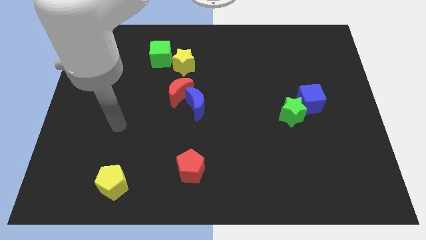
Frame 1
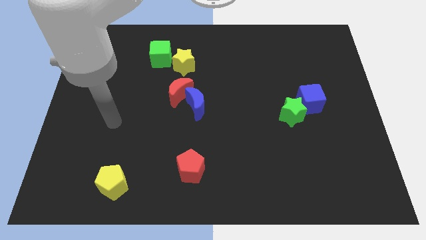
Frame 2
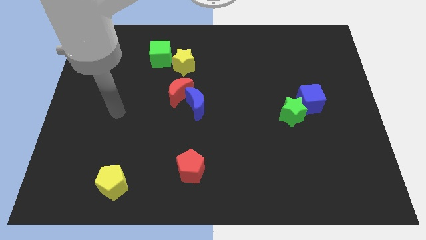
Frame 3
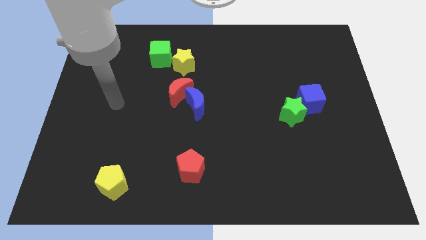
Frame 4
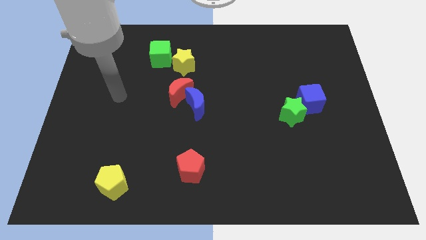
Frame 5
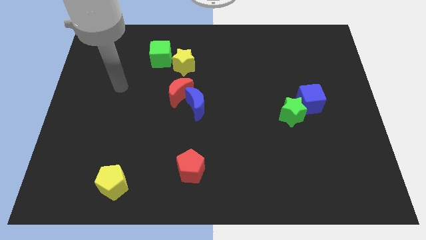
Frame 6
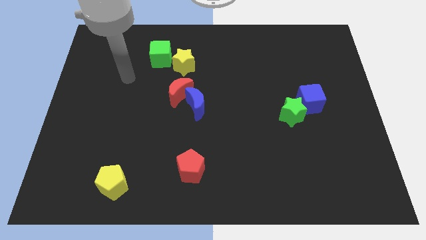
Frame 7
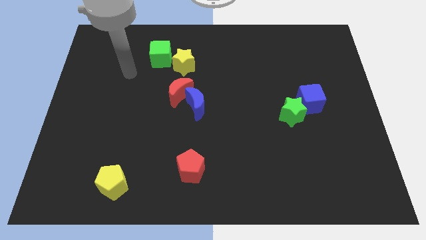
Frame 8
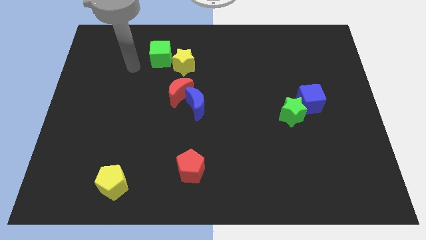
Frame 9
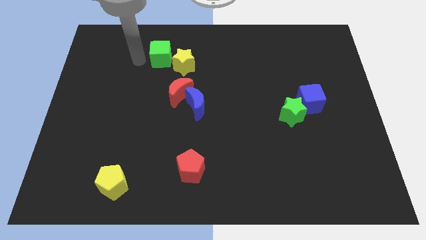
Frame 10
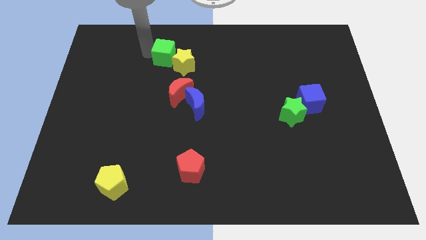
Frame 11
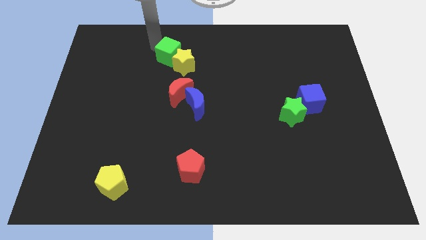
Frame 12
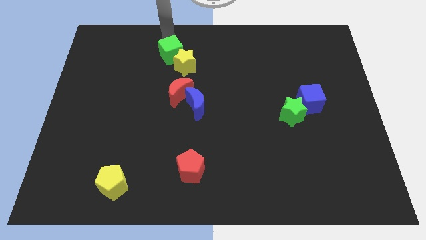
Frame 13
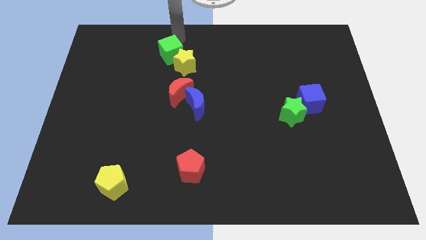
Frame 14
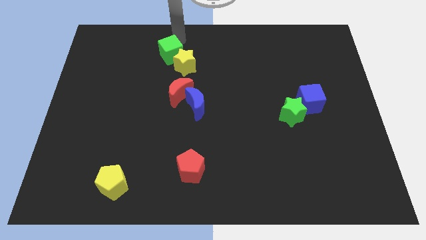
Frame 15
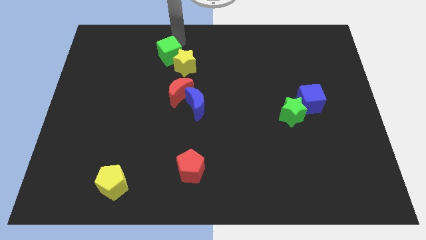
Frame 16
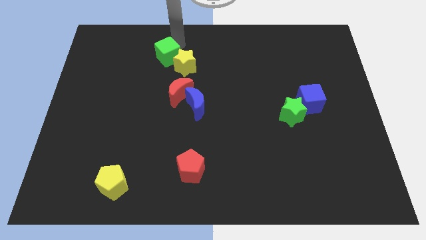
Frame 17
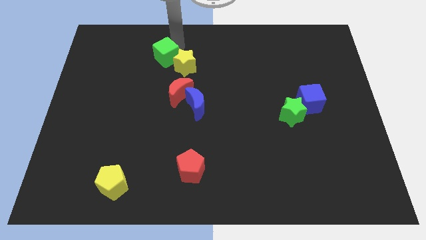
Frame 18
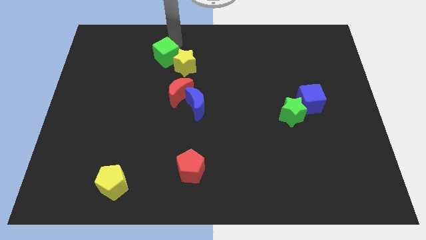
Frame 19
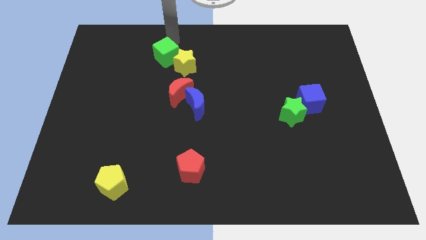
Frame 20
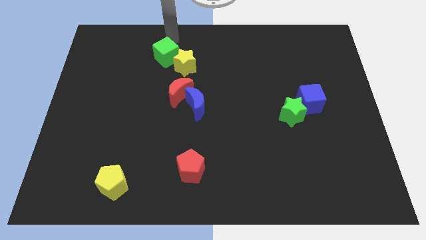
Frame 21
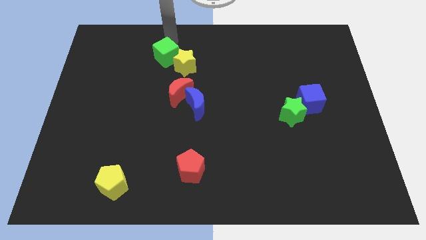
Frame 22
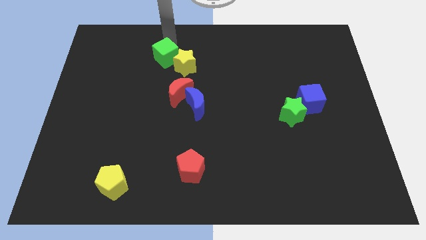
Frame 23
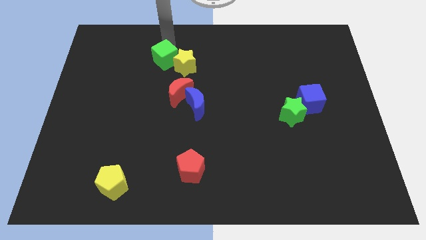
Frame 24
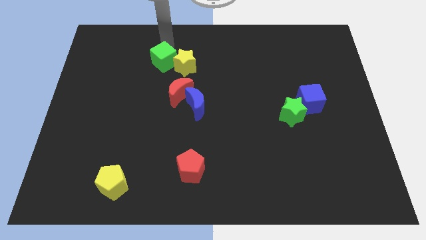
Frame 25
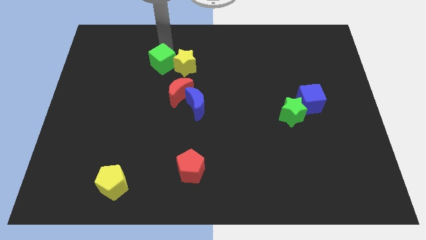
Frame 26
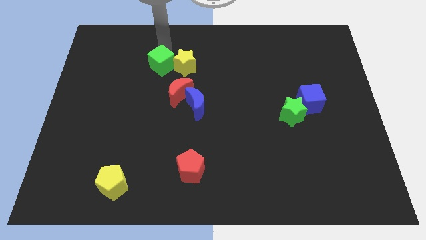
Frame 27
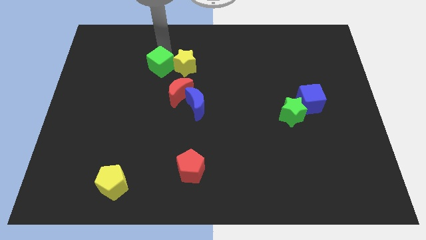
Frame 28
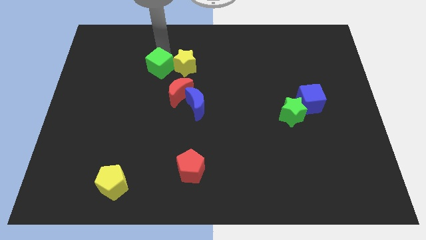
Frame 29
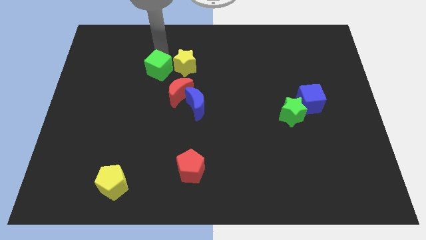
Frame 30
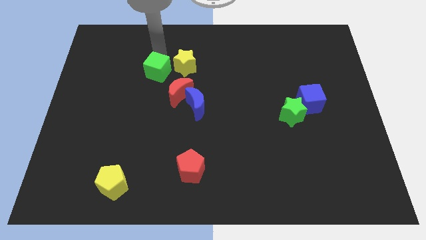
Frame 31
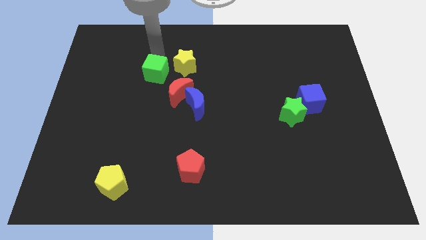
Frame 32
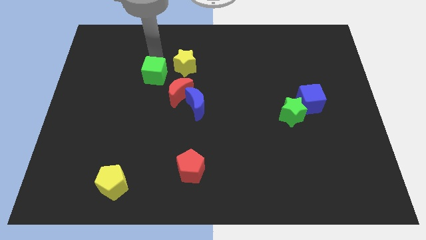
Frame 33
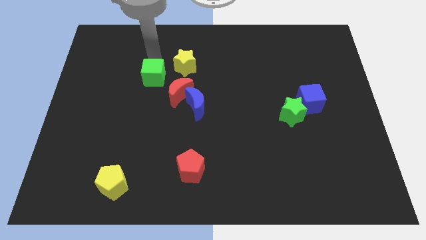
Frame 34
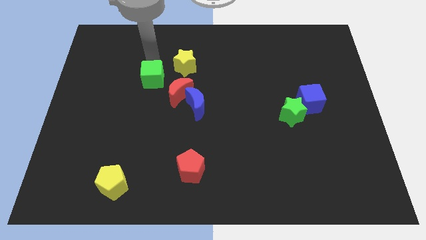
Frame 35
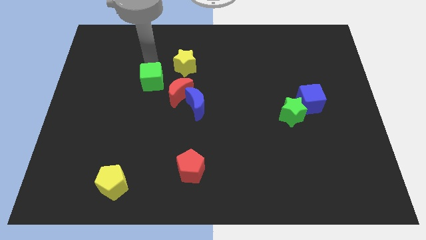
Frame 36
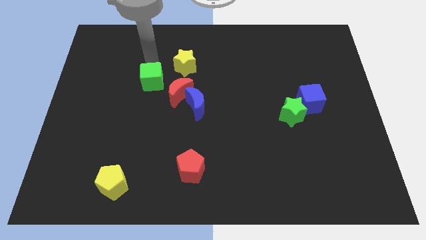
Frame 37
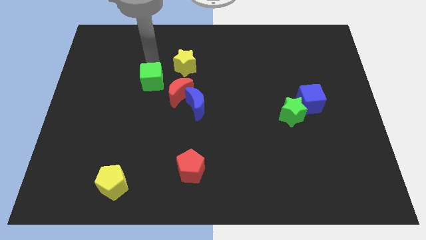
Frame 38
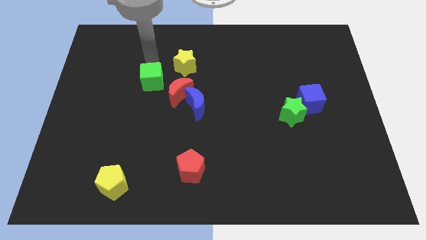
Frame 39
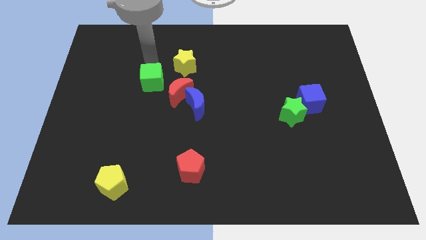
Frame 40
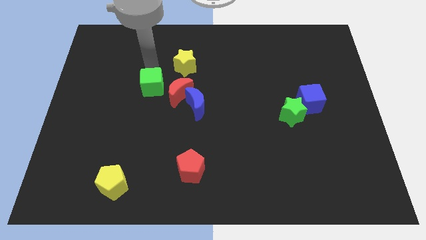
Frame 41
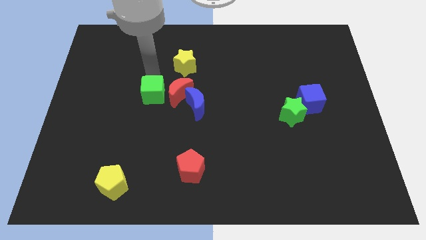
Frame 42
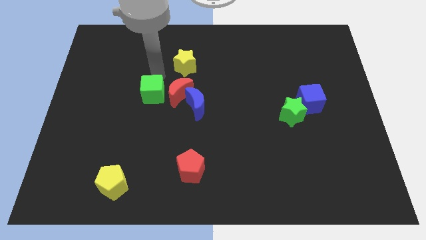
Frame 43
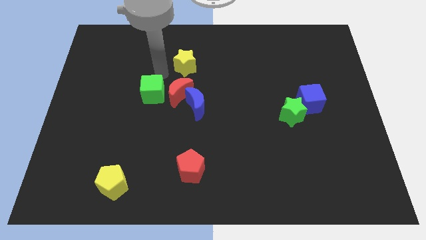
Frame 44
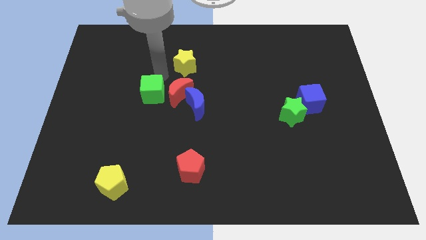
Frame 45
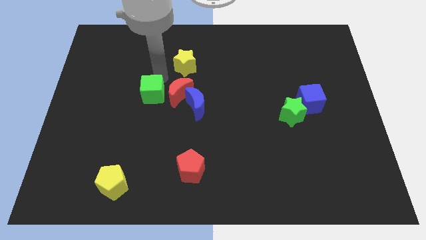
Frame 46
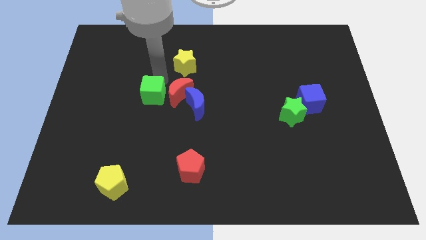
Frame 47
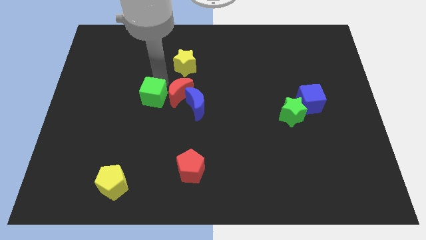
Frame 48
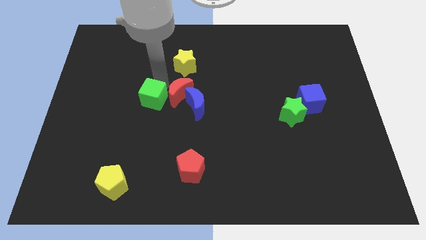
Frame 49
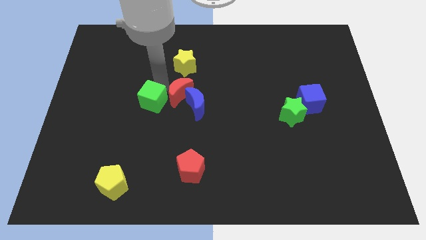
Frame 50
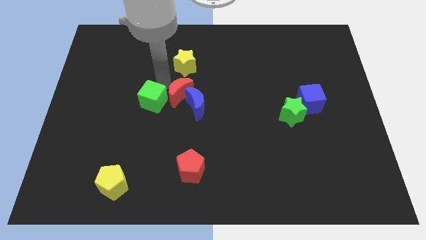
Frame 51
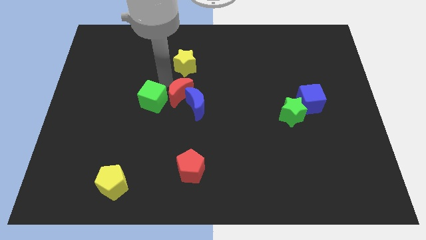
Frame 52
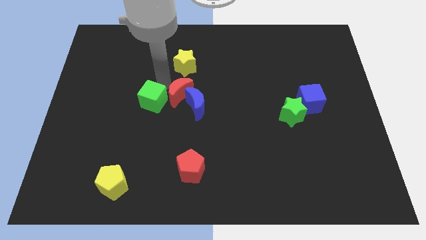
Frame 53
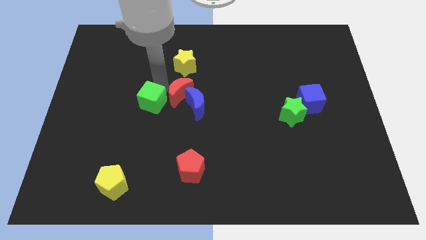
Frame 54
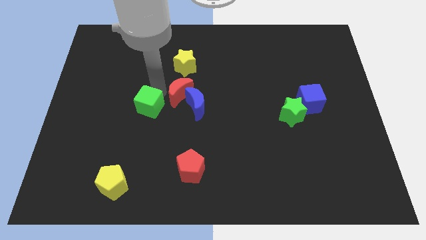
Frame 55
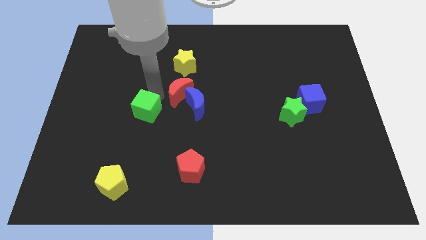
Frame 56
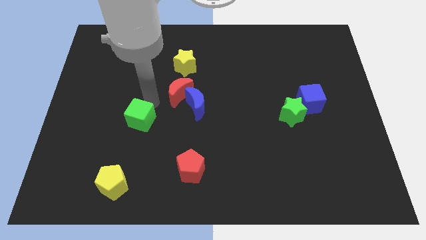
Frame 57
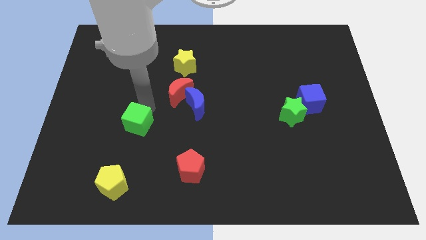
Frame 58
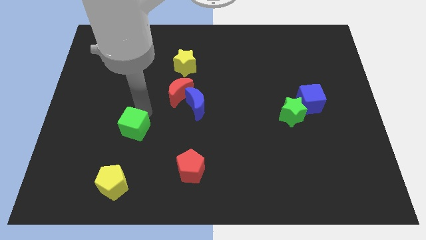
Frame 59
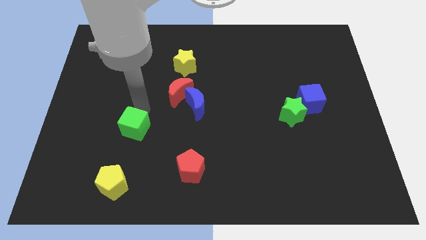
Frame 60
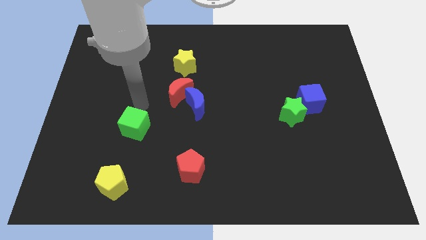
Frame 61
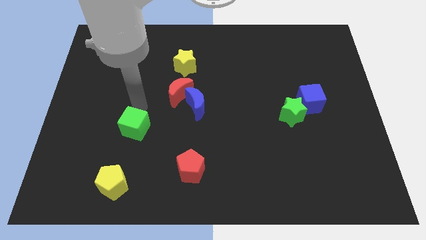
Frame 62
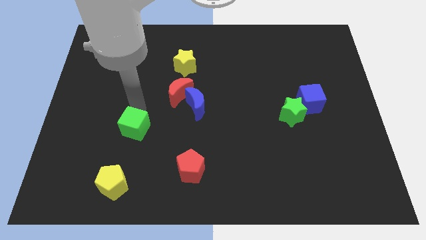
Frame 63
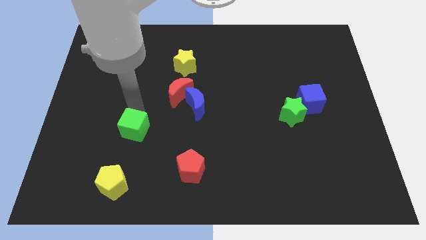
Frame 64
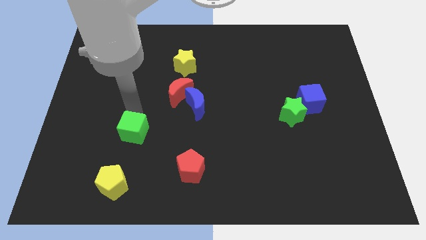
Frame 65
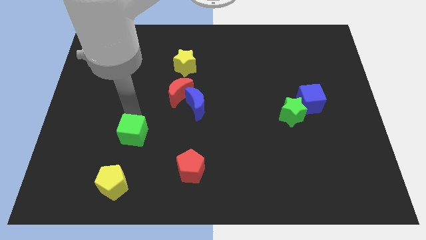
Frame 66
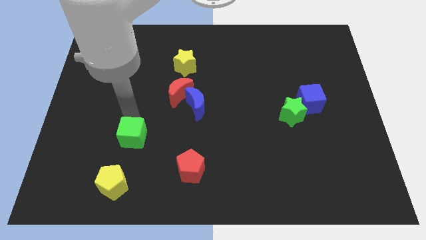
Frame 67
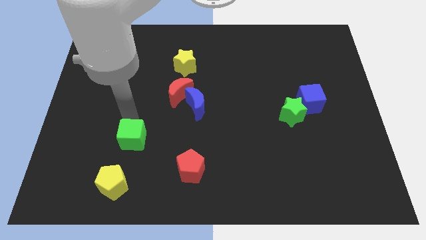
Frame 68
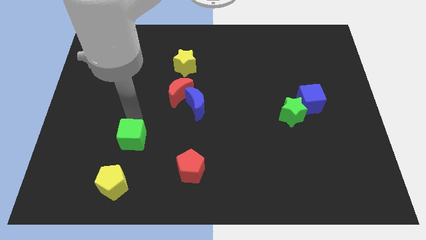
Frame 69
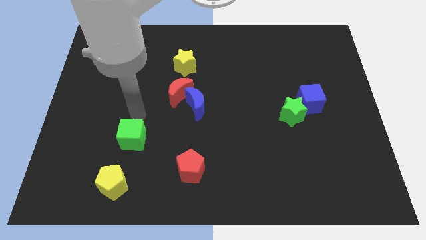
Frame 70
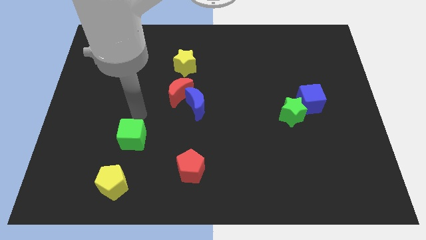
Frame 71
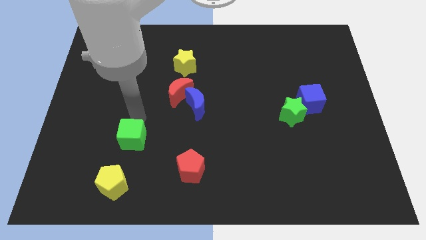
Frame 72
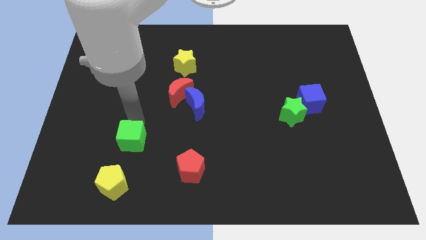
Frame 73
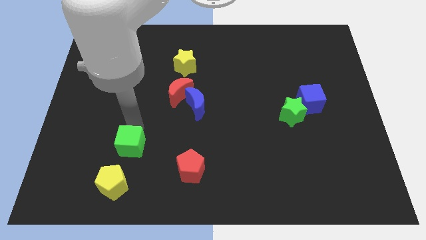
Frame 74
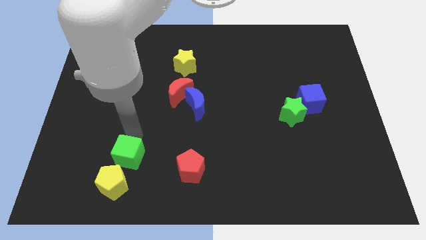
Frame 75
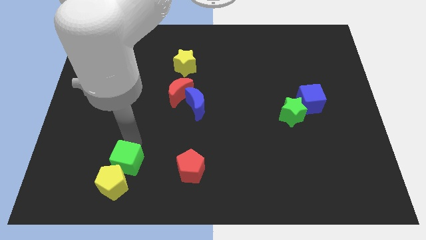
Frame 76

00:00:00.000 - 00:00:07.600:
push the green cube towards the yellow pentagon

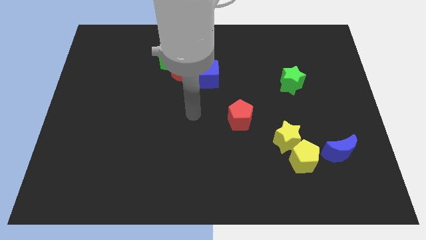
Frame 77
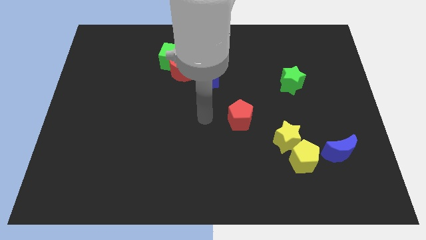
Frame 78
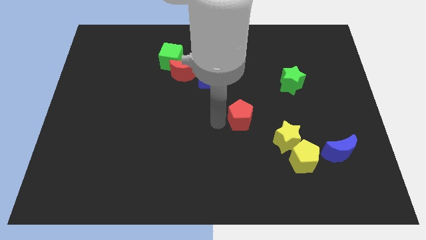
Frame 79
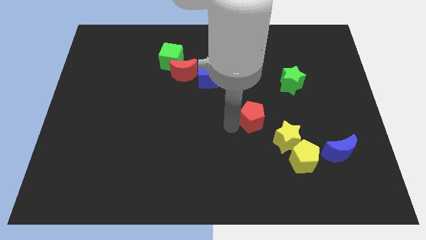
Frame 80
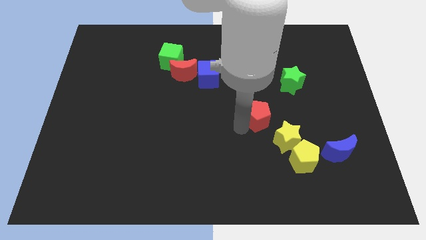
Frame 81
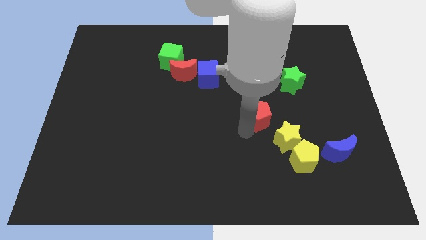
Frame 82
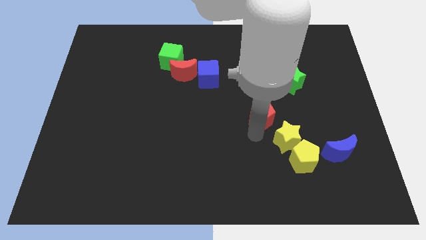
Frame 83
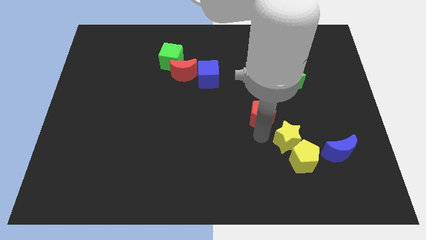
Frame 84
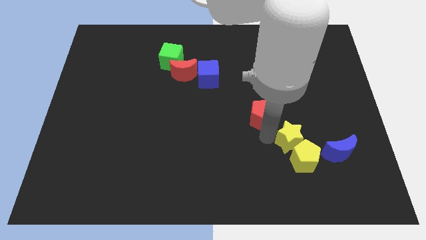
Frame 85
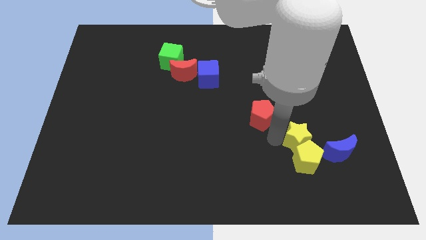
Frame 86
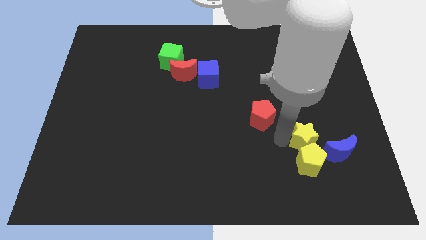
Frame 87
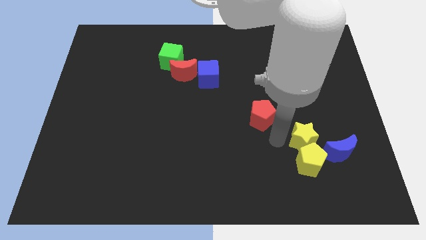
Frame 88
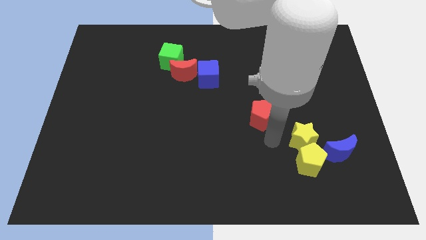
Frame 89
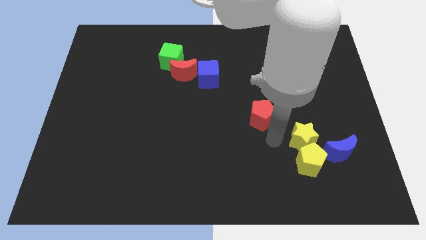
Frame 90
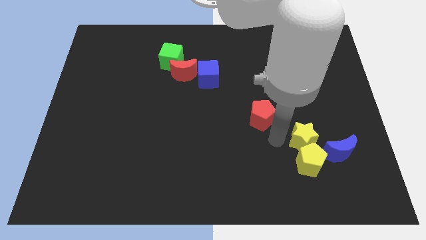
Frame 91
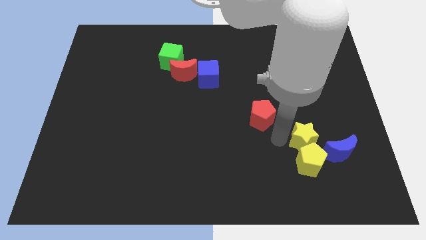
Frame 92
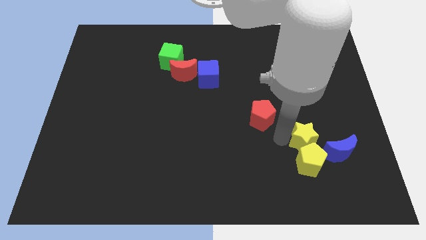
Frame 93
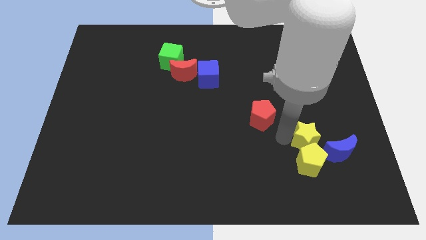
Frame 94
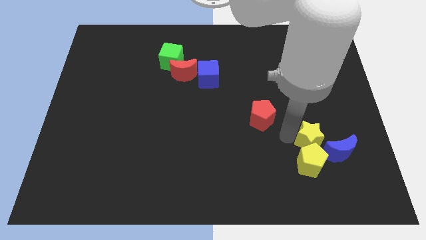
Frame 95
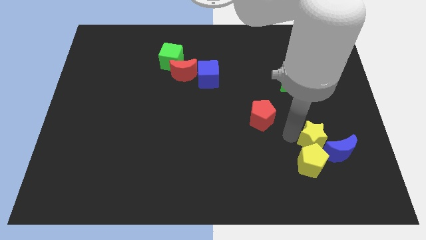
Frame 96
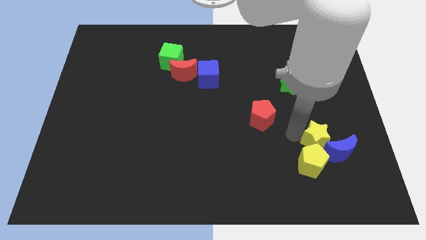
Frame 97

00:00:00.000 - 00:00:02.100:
put the yellow star next to the blue moon
